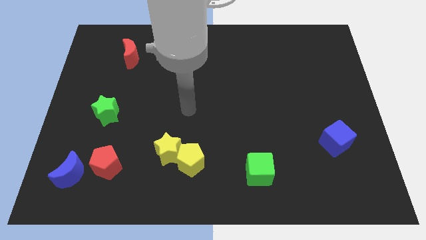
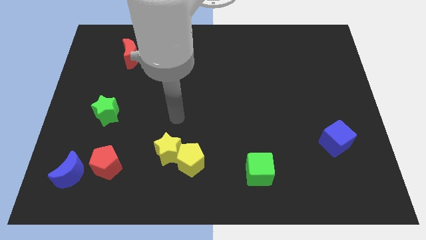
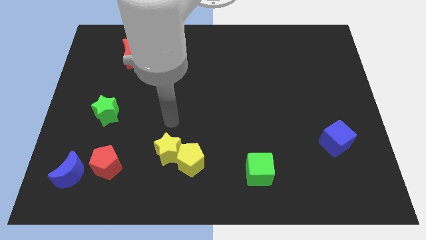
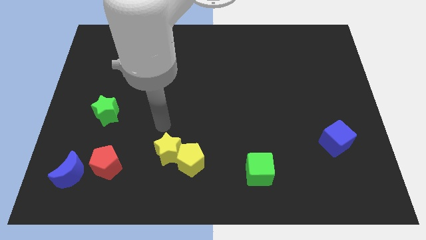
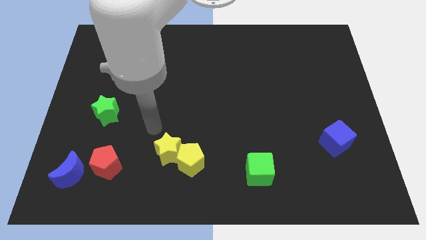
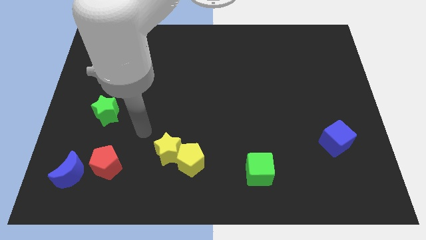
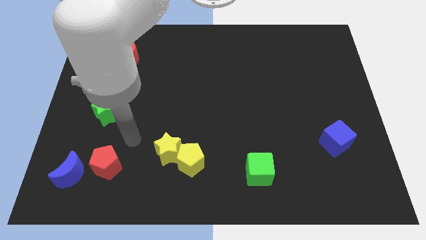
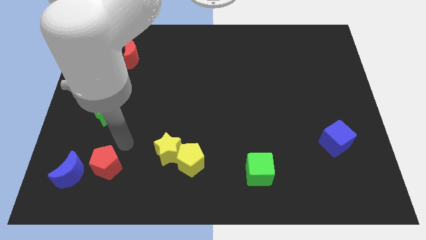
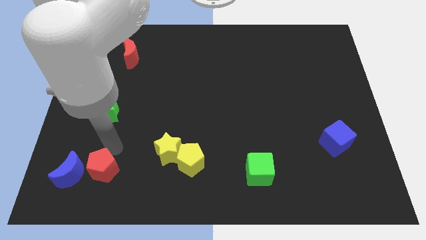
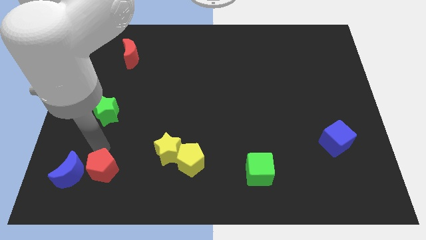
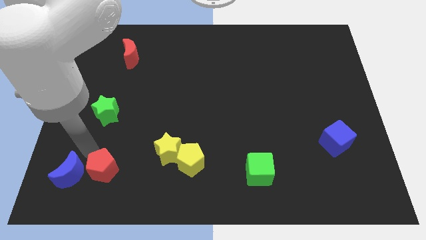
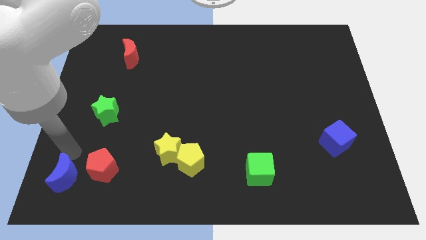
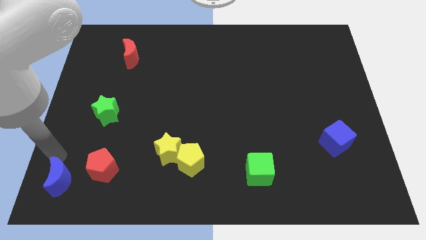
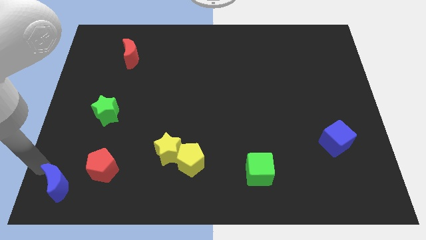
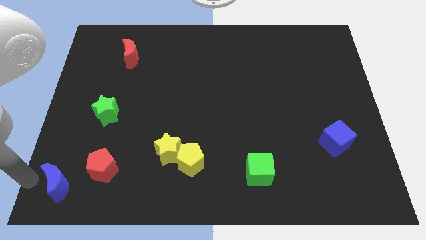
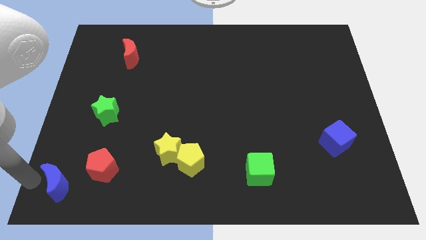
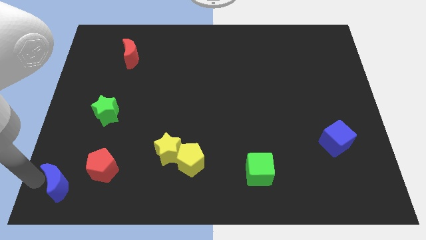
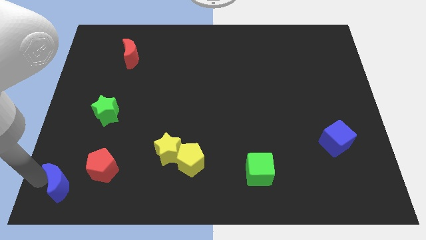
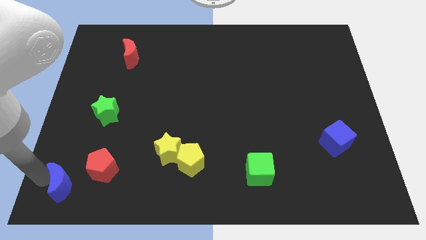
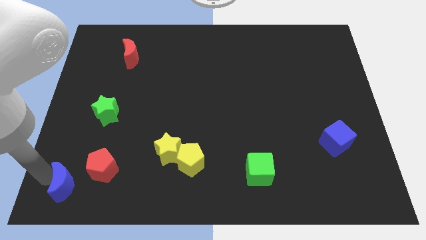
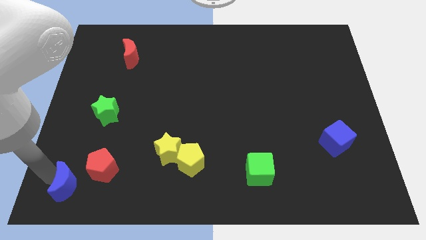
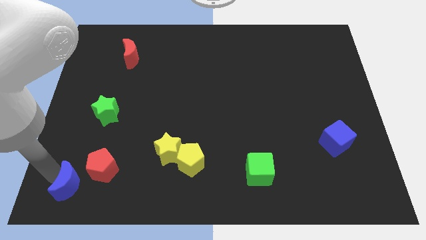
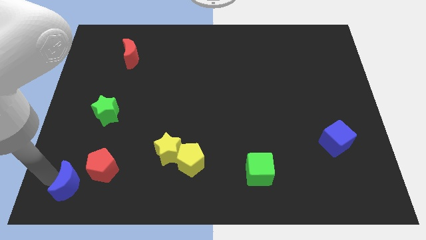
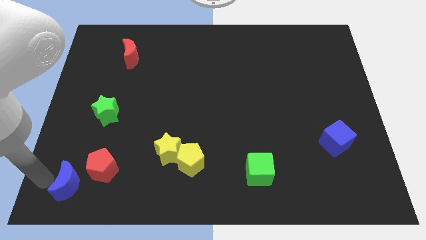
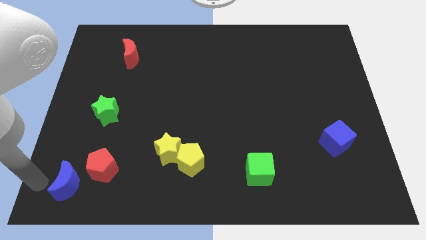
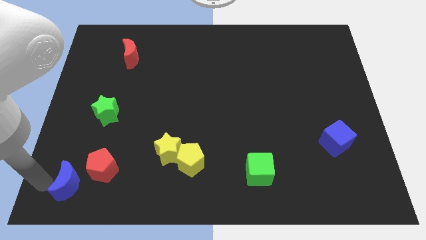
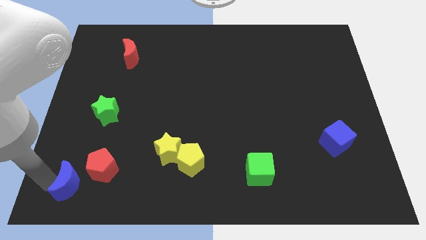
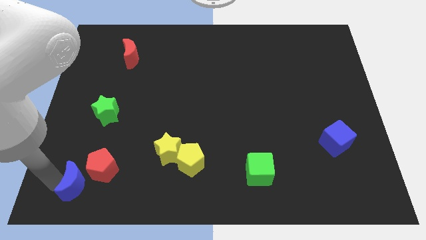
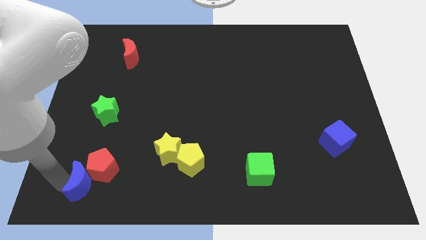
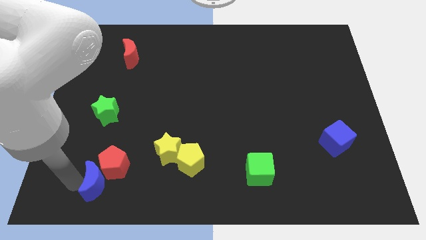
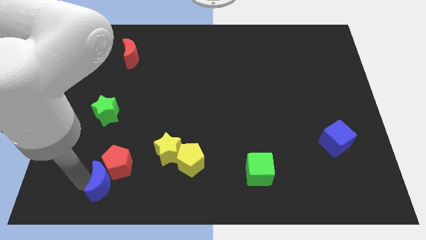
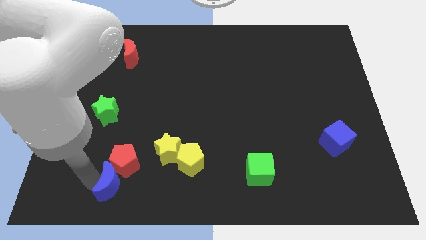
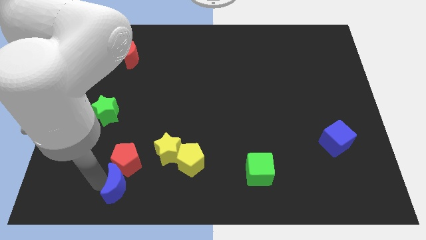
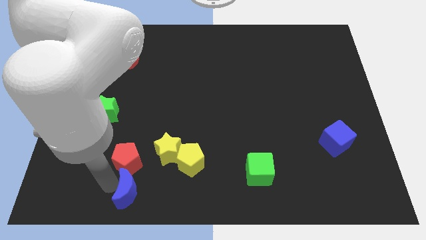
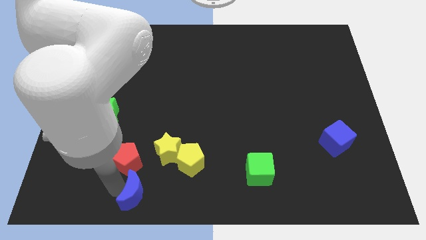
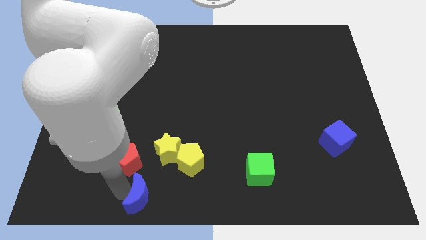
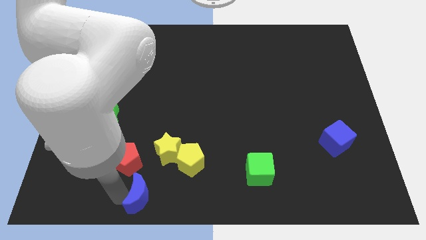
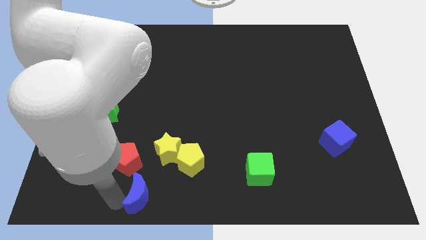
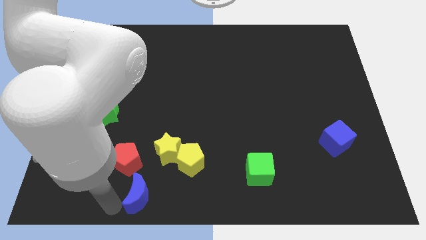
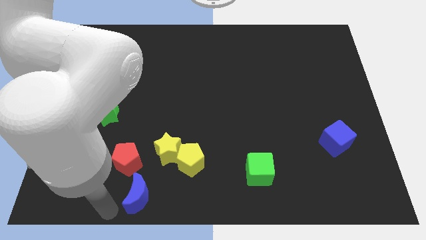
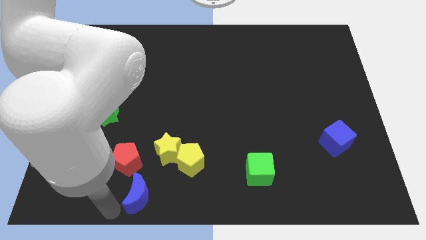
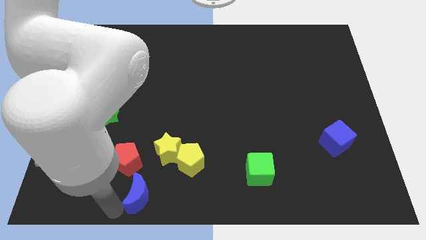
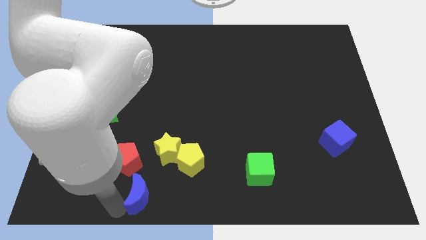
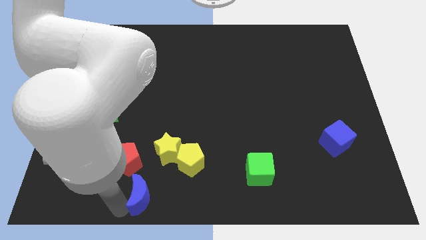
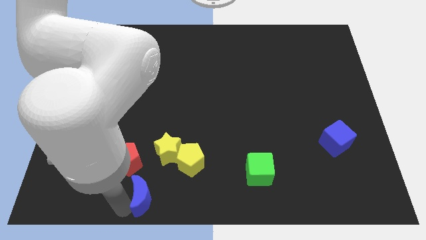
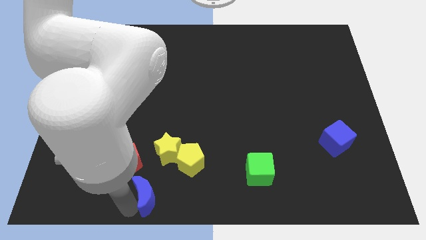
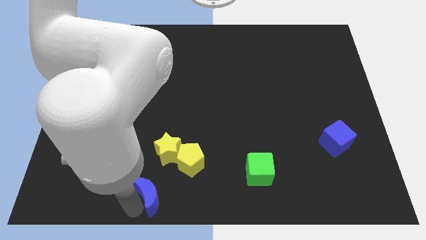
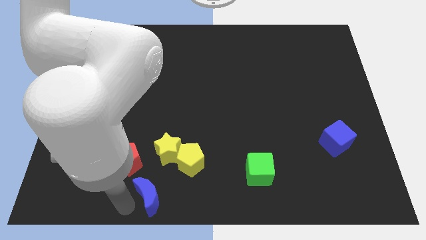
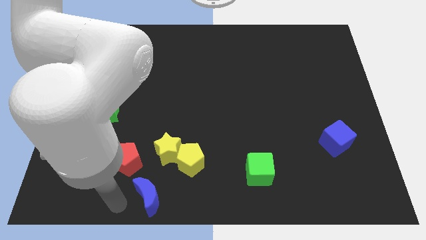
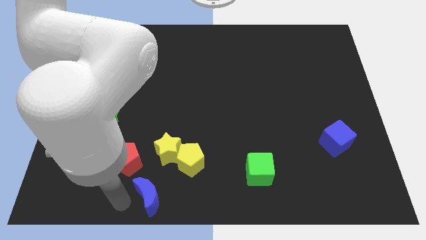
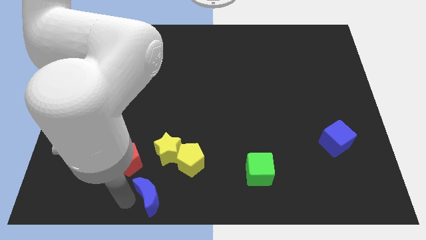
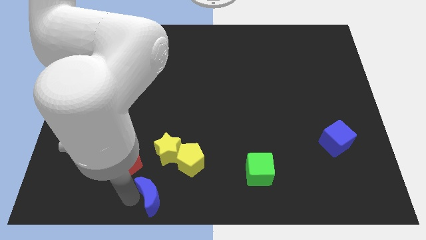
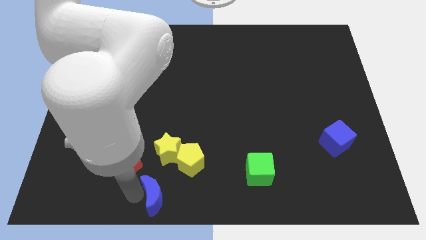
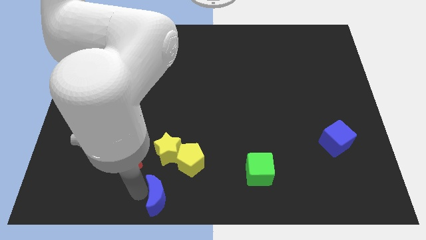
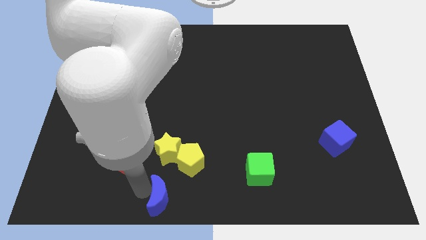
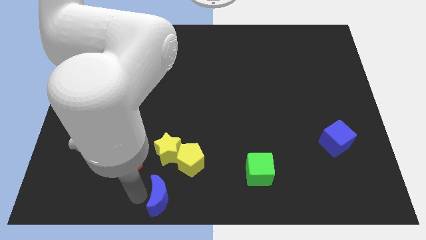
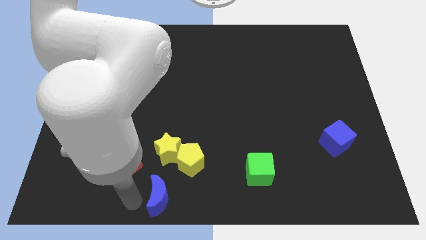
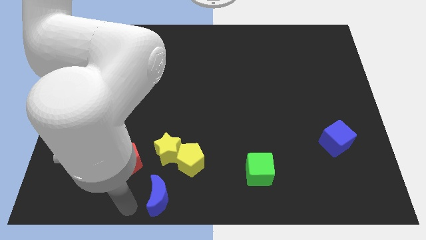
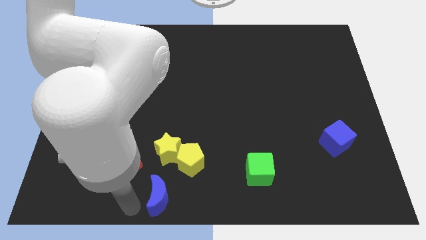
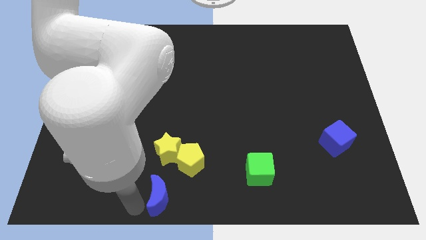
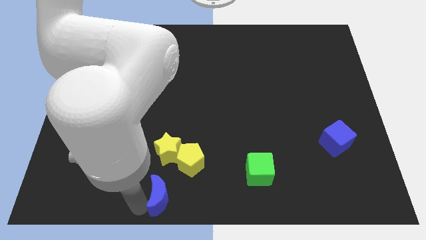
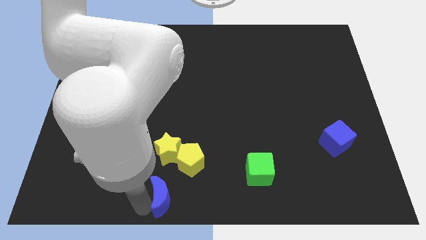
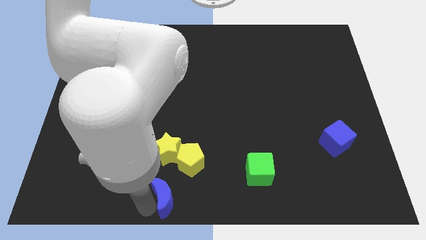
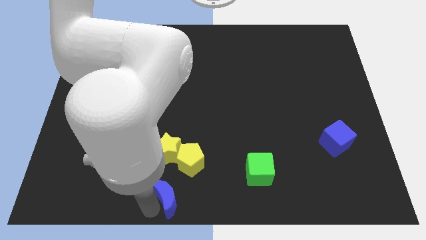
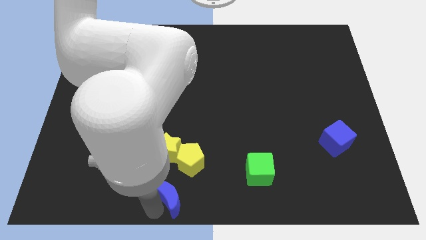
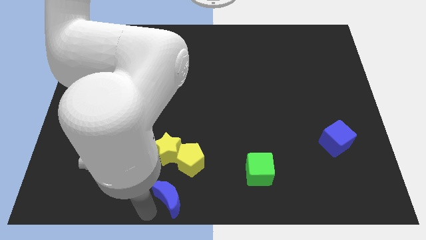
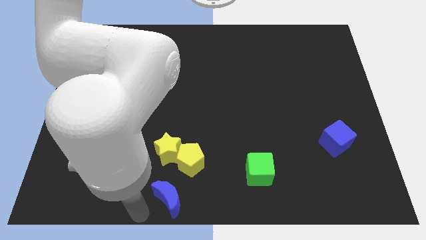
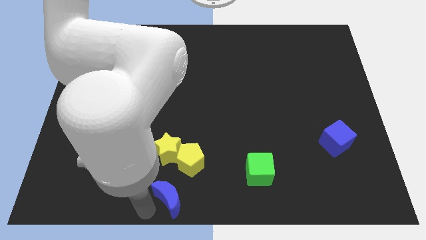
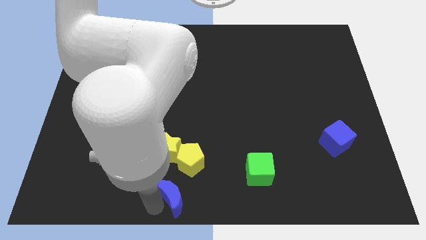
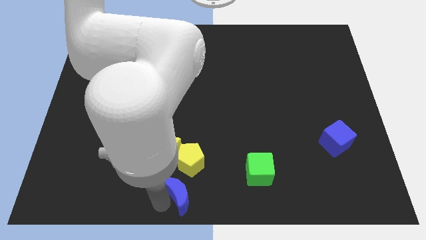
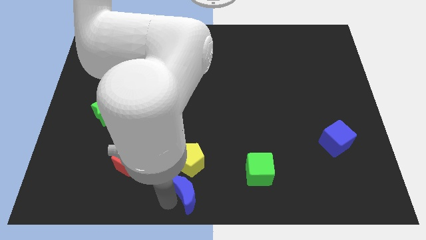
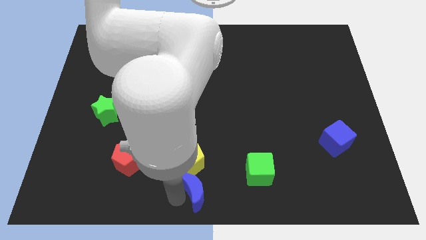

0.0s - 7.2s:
slide the blue moon to the bottom right side of the yellow pentagon
